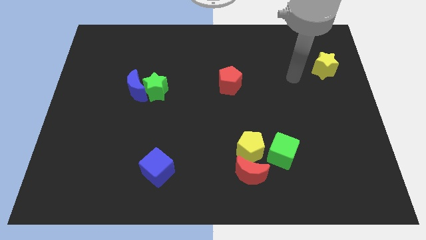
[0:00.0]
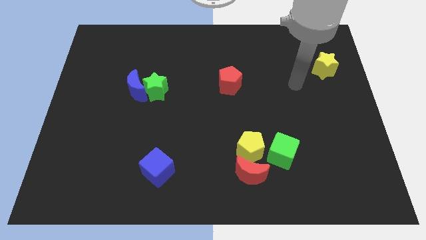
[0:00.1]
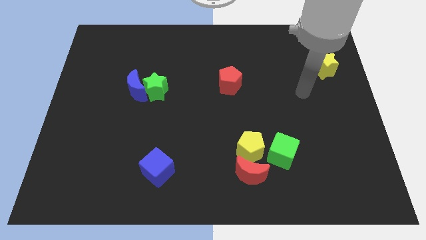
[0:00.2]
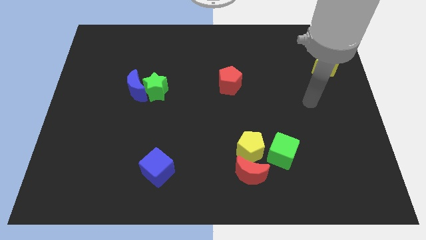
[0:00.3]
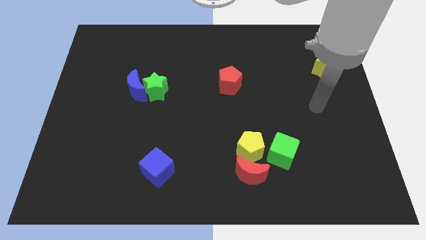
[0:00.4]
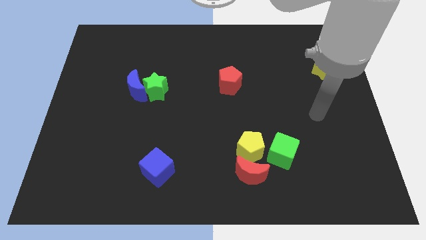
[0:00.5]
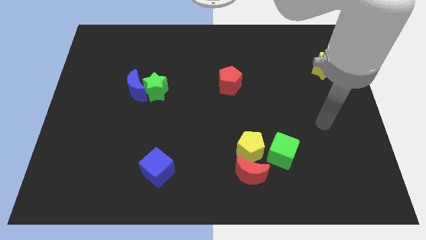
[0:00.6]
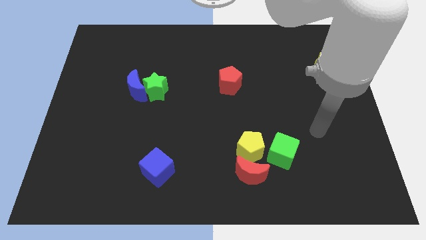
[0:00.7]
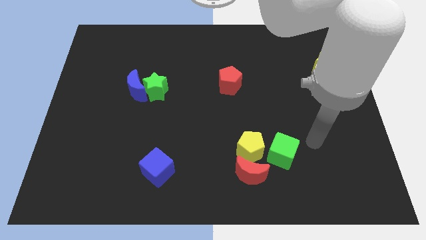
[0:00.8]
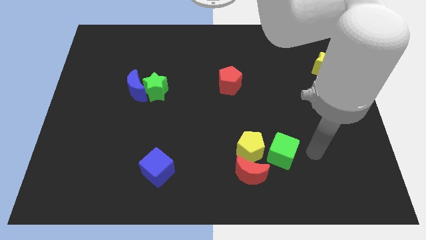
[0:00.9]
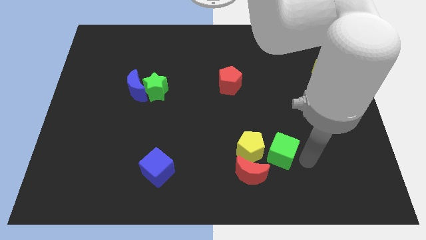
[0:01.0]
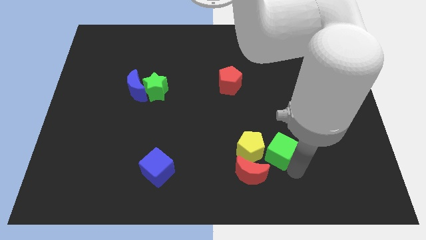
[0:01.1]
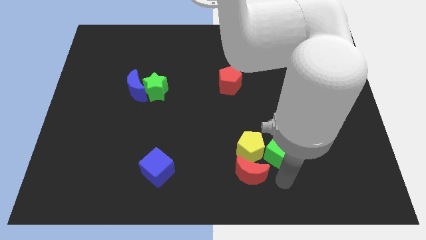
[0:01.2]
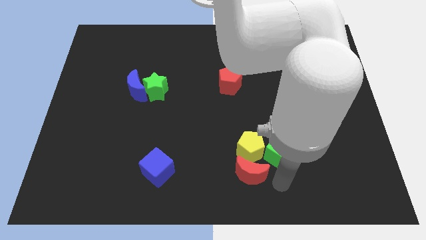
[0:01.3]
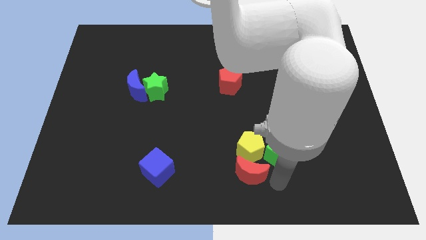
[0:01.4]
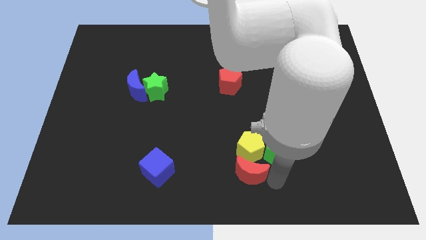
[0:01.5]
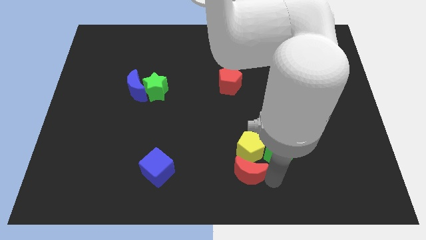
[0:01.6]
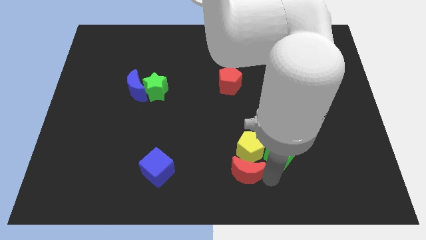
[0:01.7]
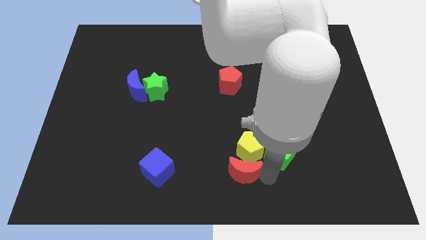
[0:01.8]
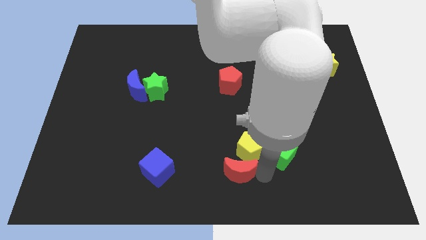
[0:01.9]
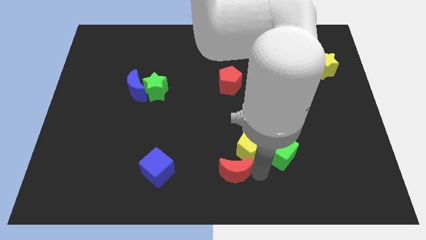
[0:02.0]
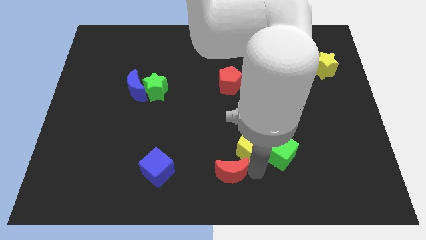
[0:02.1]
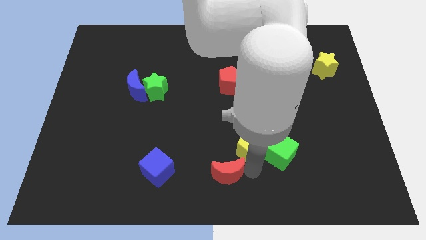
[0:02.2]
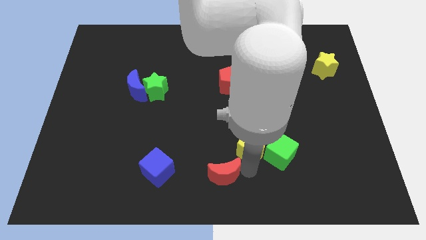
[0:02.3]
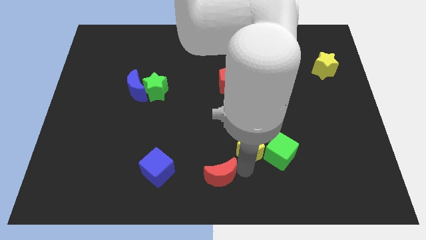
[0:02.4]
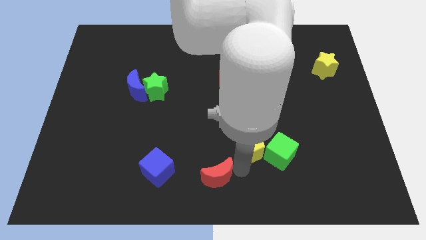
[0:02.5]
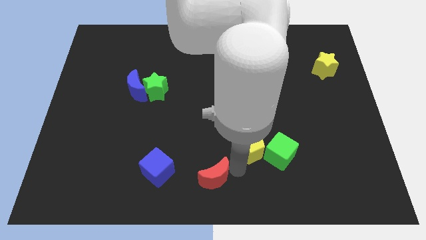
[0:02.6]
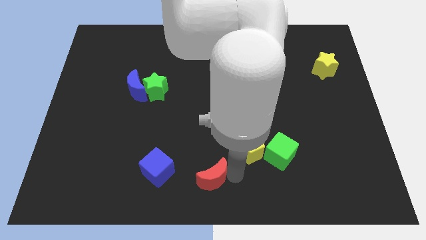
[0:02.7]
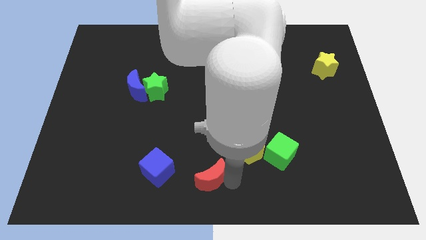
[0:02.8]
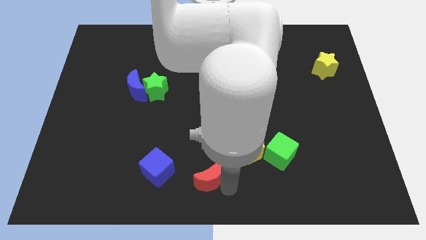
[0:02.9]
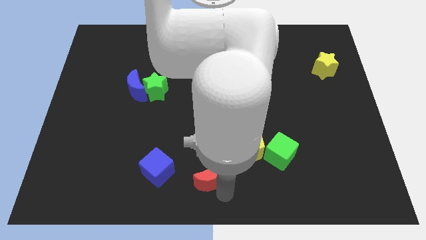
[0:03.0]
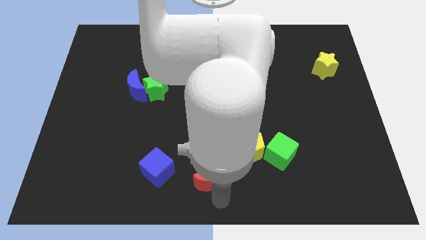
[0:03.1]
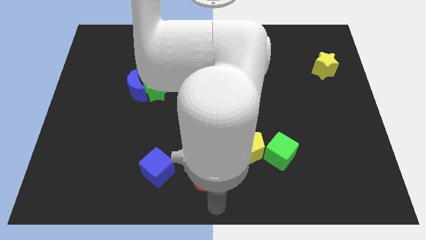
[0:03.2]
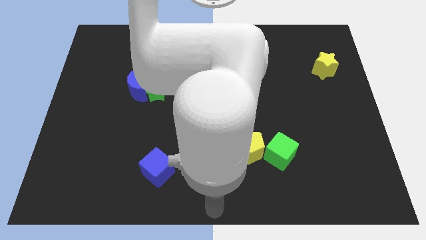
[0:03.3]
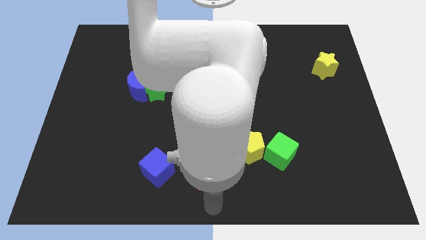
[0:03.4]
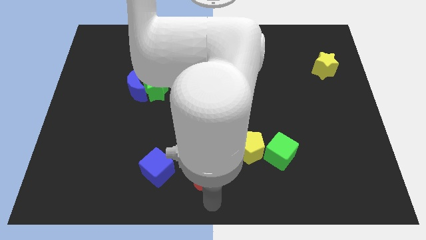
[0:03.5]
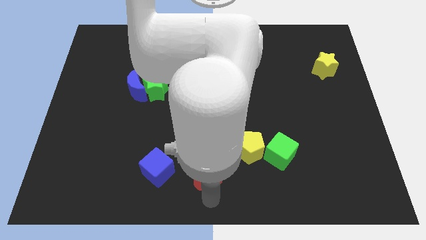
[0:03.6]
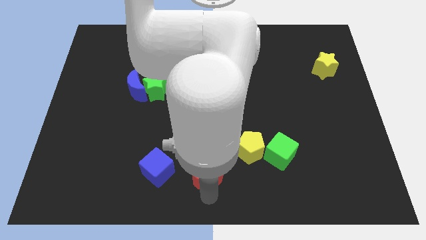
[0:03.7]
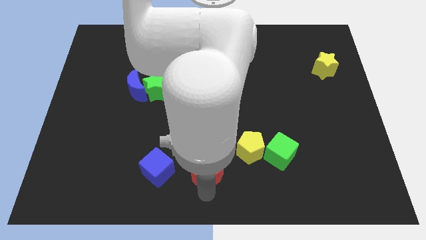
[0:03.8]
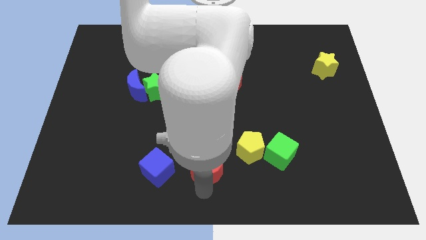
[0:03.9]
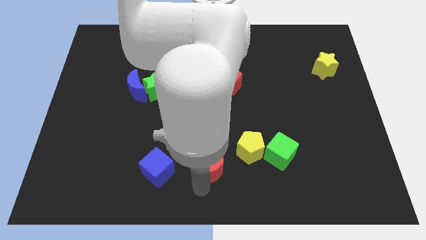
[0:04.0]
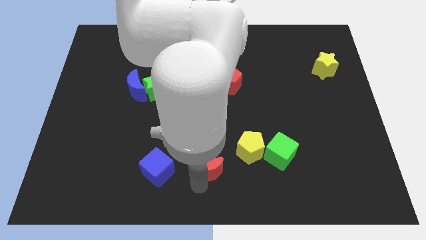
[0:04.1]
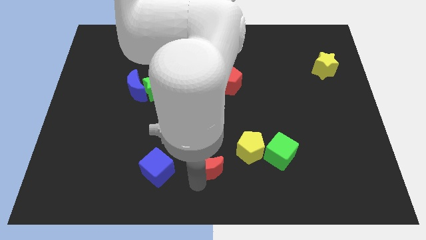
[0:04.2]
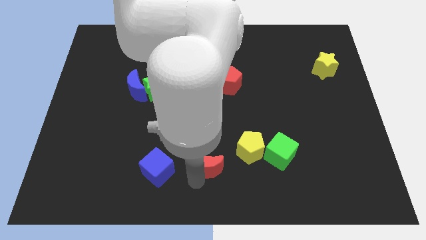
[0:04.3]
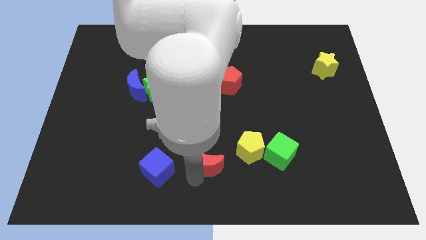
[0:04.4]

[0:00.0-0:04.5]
slide the red moon up and to the left somewhat

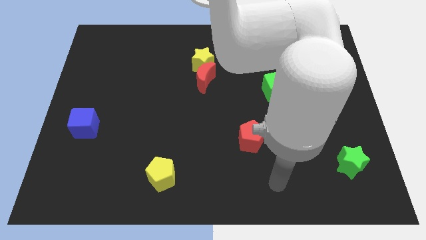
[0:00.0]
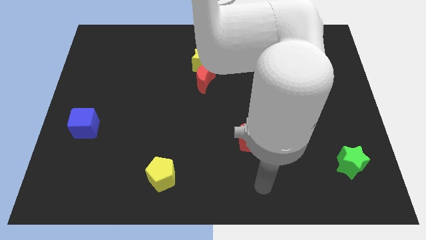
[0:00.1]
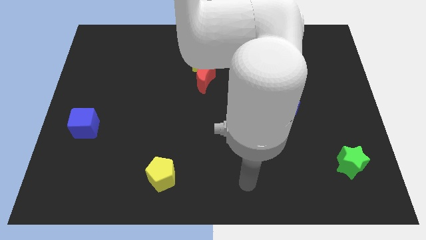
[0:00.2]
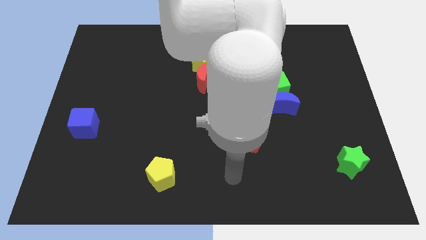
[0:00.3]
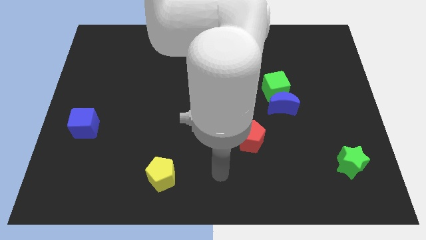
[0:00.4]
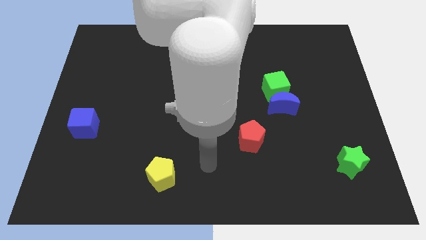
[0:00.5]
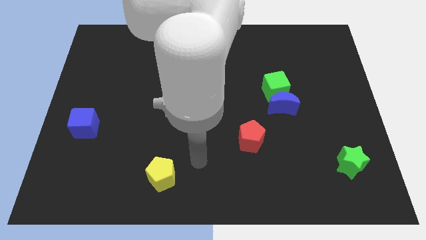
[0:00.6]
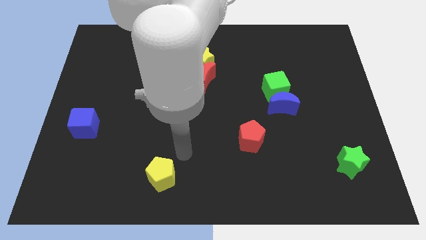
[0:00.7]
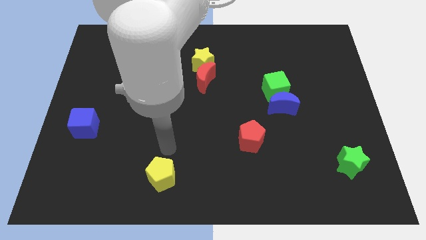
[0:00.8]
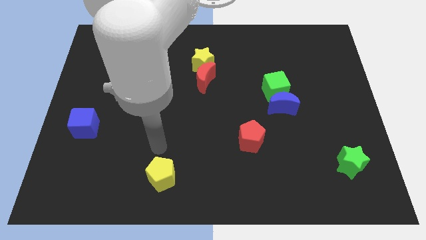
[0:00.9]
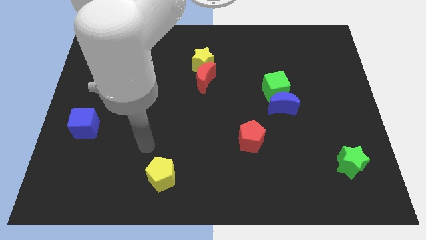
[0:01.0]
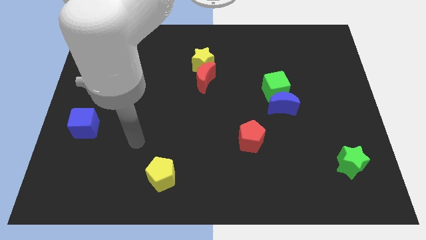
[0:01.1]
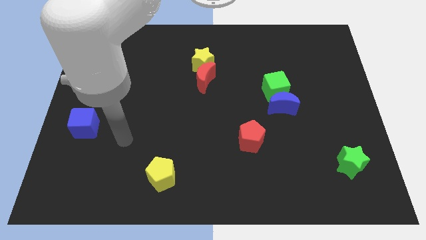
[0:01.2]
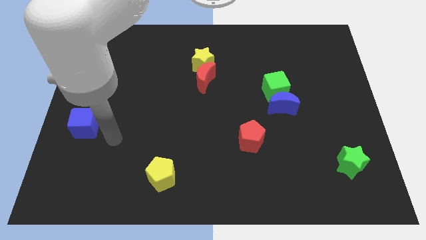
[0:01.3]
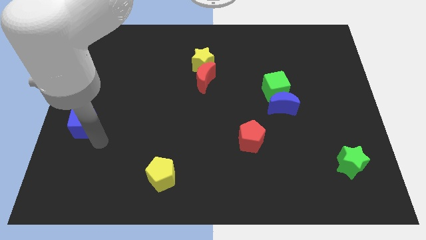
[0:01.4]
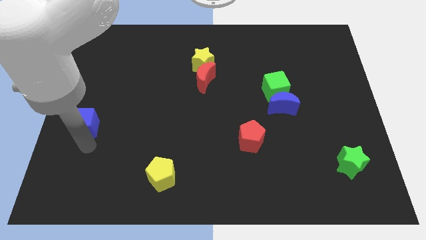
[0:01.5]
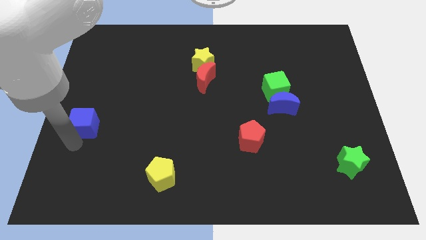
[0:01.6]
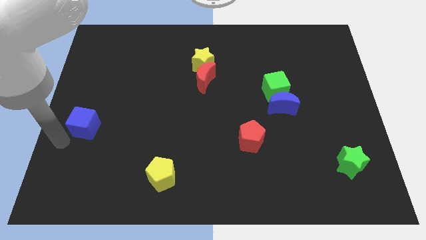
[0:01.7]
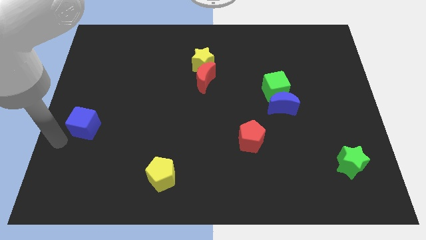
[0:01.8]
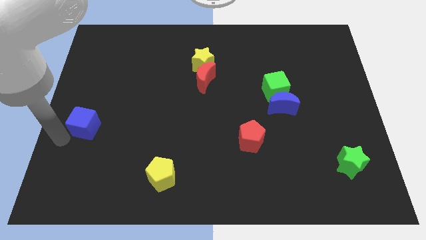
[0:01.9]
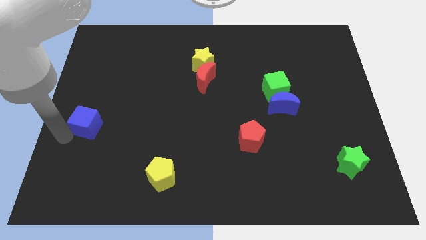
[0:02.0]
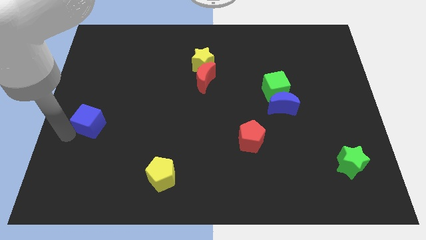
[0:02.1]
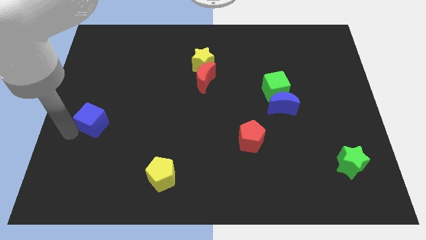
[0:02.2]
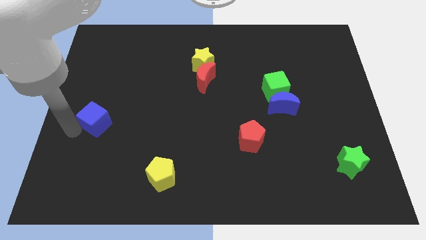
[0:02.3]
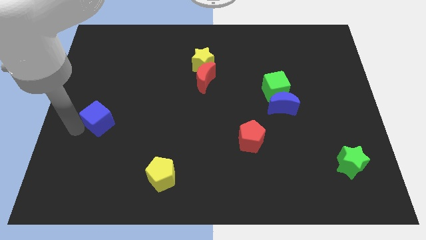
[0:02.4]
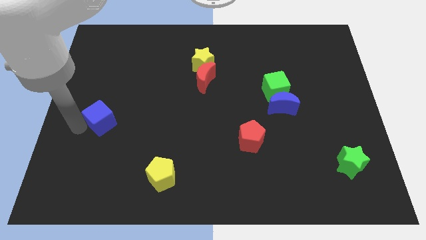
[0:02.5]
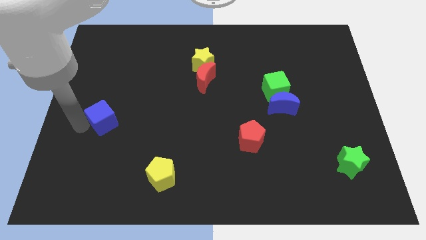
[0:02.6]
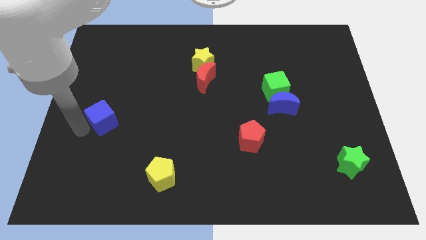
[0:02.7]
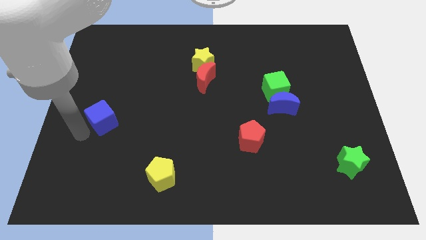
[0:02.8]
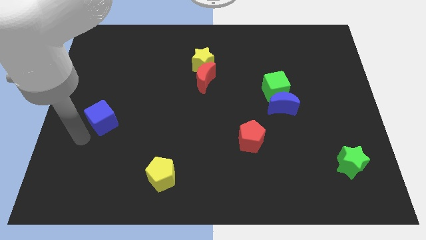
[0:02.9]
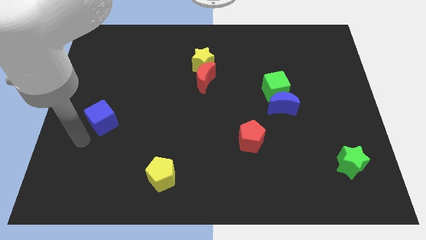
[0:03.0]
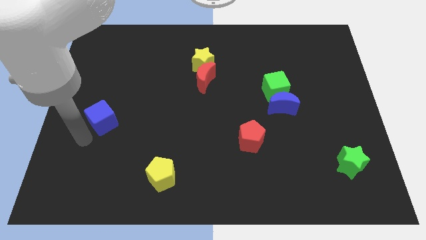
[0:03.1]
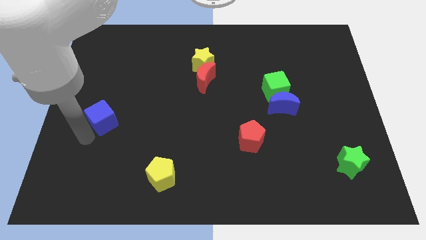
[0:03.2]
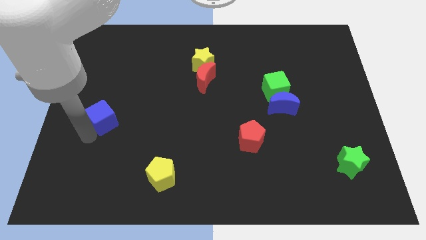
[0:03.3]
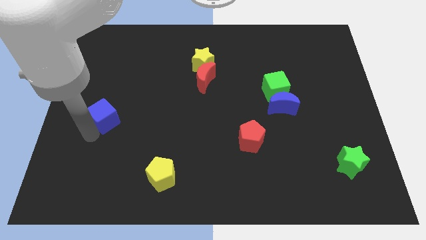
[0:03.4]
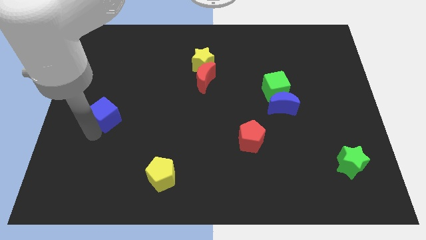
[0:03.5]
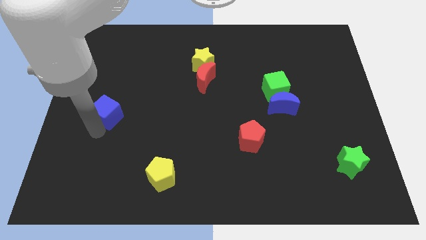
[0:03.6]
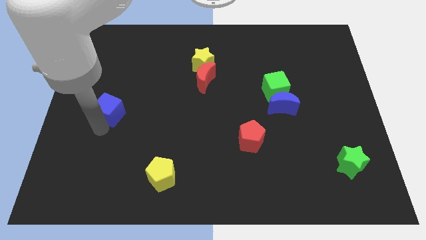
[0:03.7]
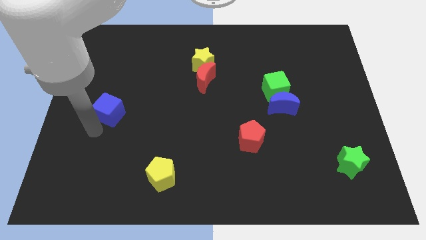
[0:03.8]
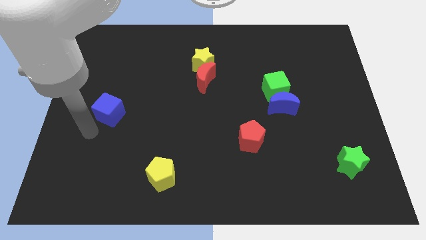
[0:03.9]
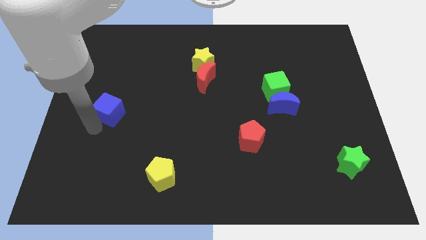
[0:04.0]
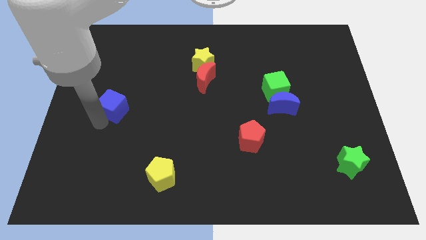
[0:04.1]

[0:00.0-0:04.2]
slide the blue cube a little up and then right
